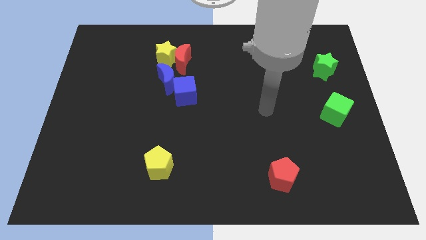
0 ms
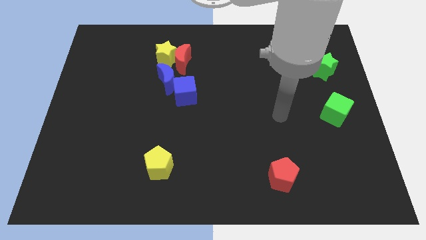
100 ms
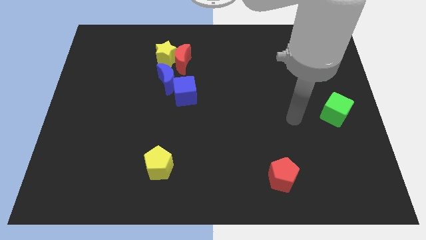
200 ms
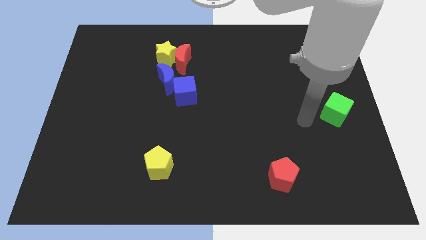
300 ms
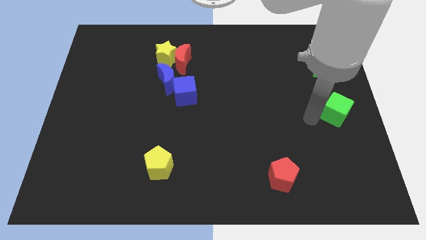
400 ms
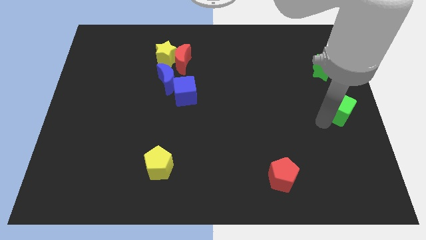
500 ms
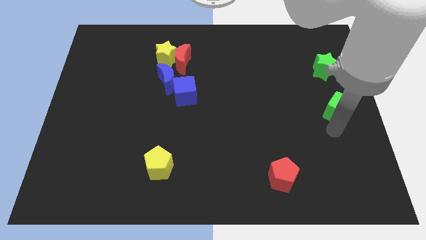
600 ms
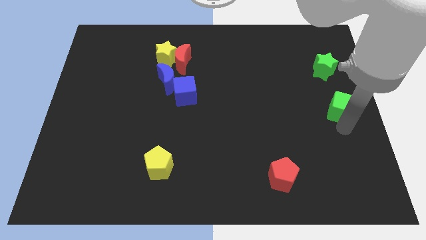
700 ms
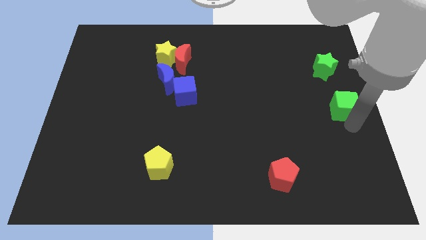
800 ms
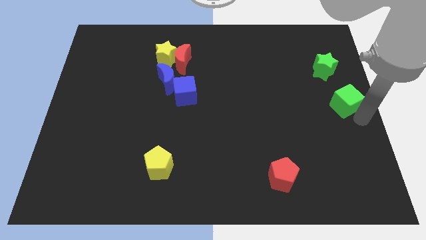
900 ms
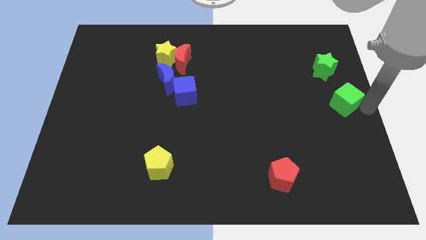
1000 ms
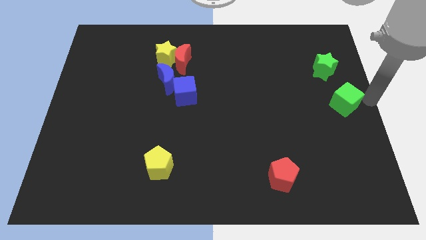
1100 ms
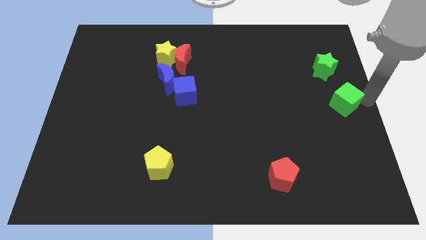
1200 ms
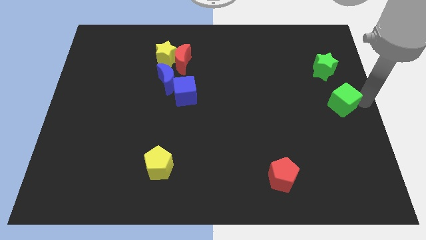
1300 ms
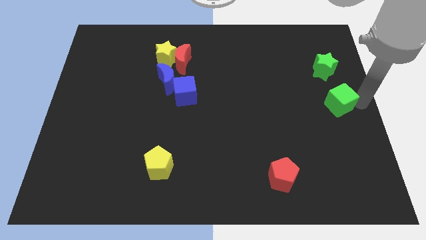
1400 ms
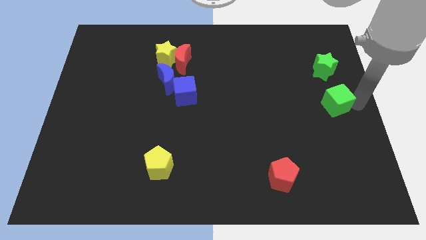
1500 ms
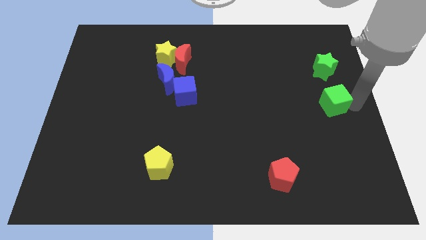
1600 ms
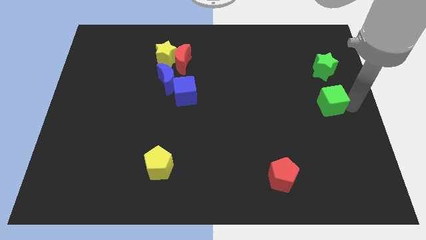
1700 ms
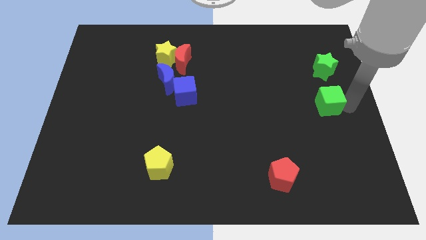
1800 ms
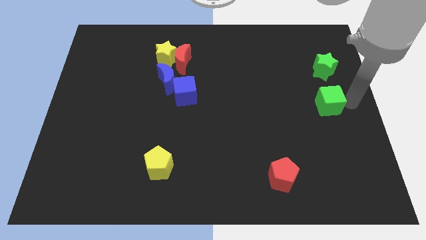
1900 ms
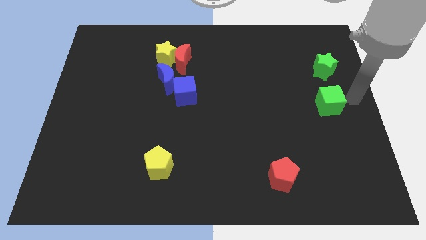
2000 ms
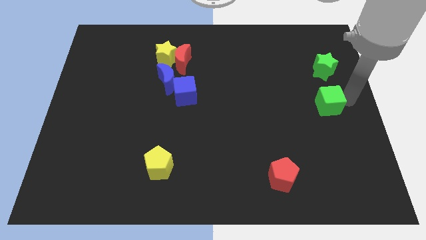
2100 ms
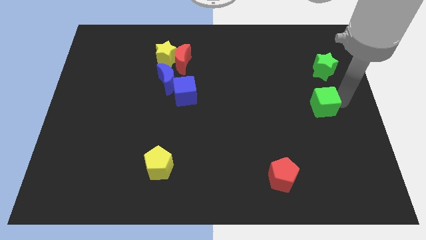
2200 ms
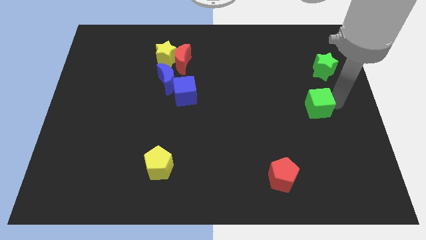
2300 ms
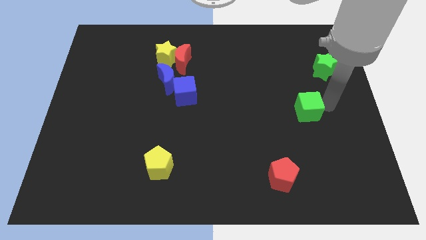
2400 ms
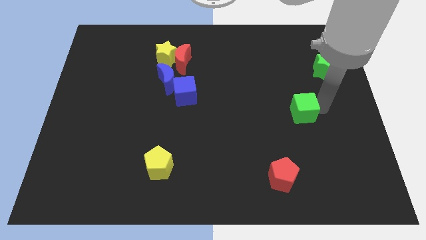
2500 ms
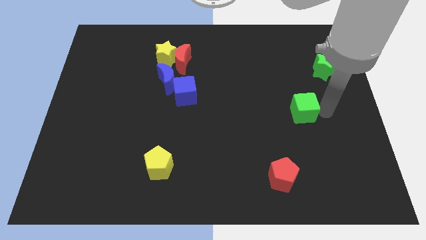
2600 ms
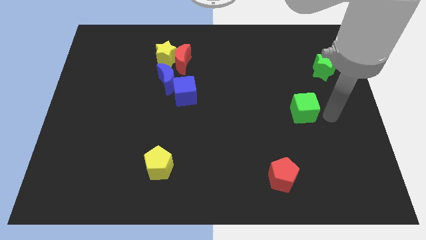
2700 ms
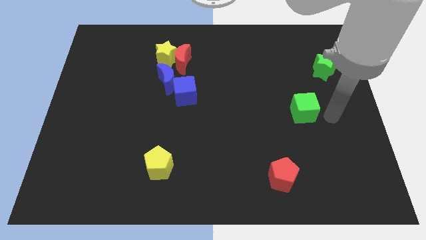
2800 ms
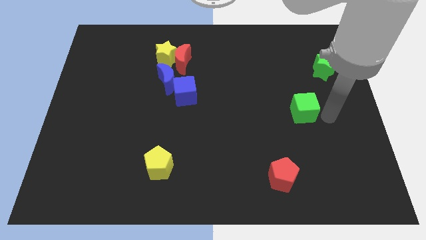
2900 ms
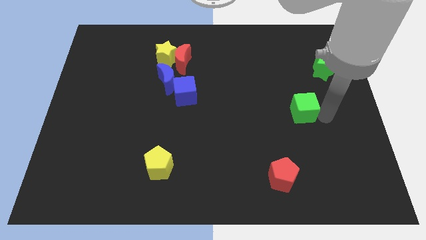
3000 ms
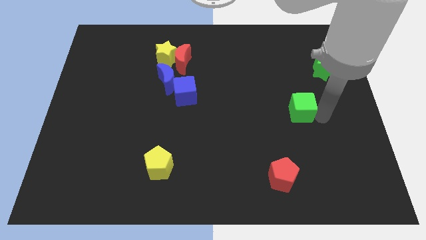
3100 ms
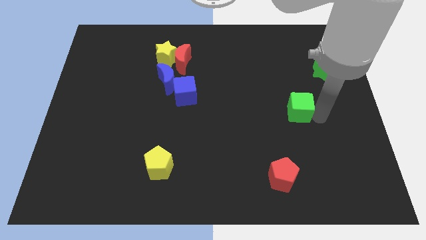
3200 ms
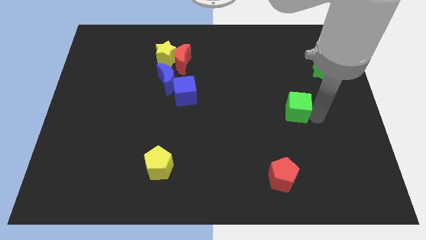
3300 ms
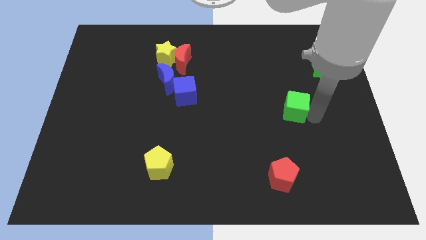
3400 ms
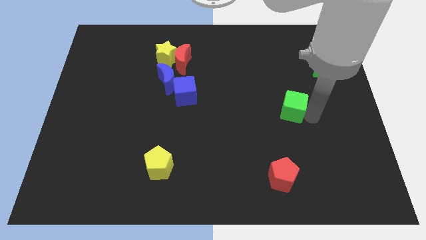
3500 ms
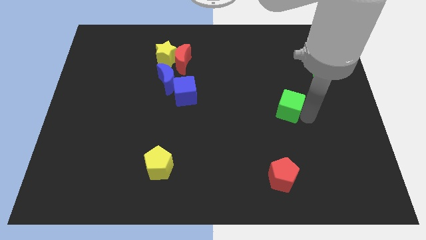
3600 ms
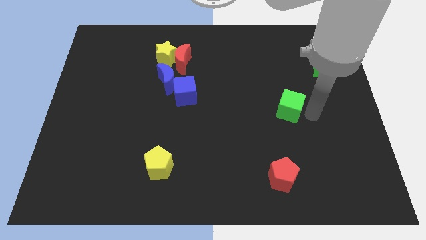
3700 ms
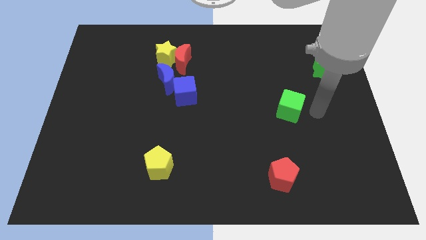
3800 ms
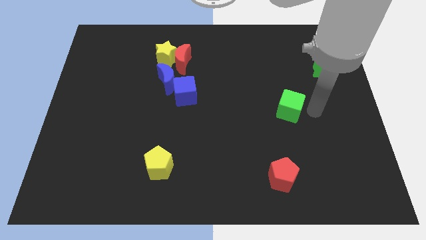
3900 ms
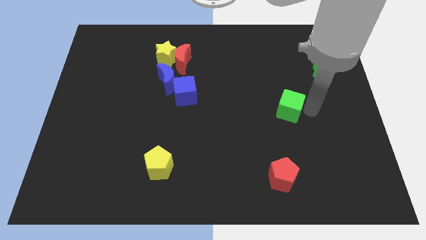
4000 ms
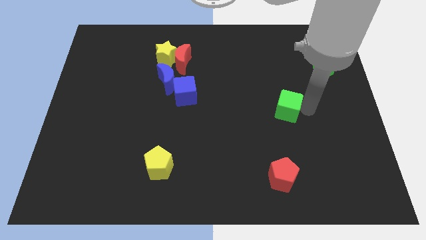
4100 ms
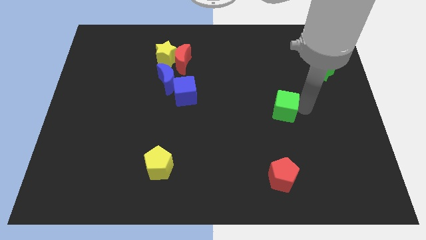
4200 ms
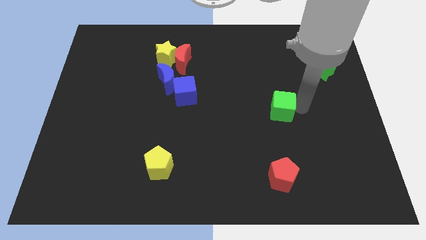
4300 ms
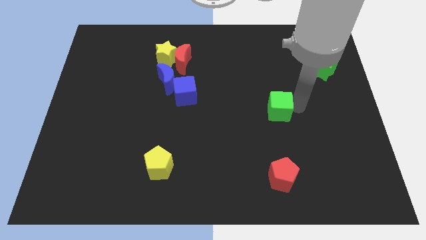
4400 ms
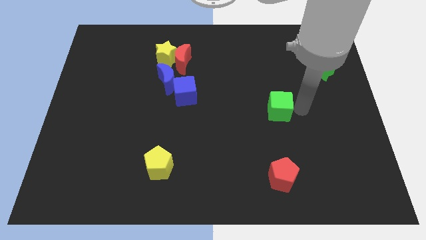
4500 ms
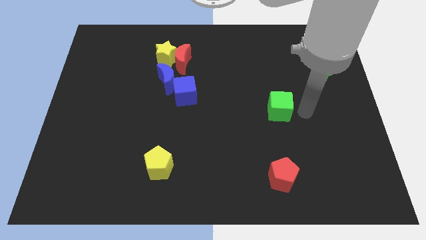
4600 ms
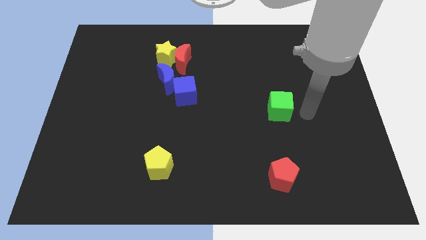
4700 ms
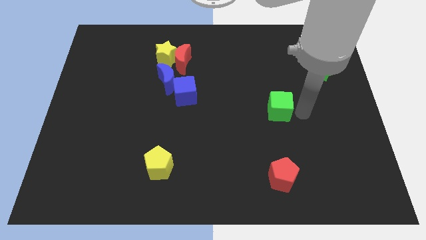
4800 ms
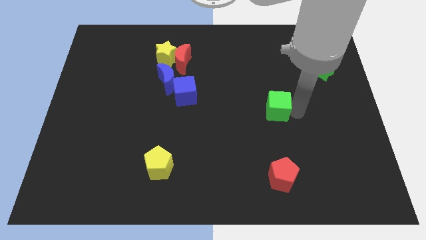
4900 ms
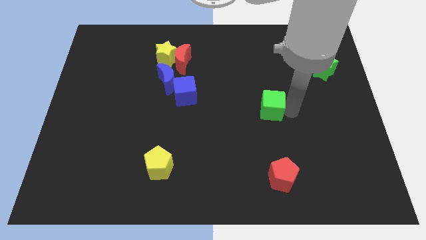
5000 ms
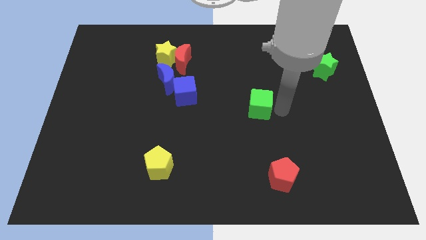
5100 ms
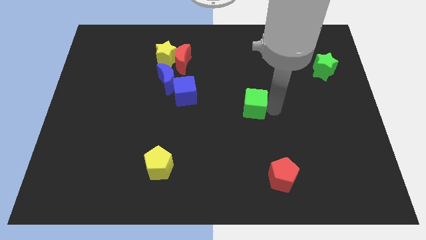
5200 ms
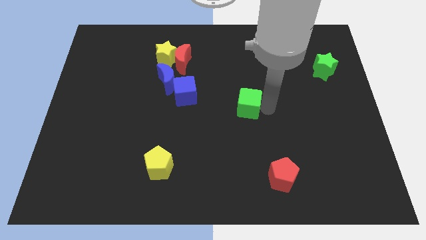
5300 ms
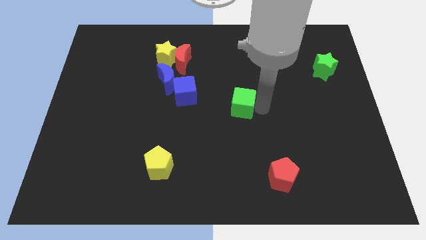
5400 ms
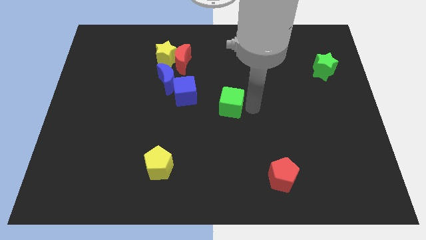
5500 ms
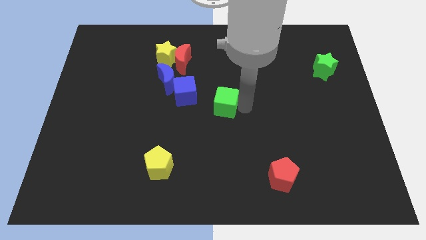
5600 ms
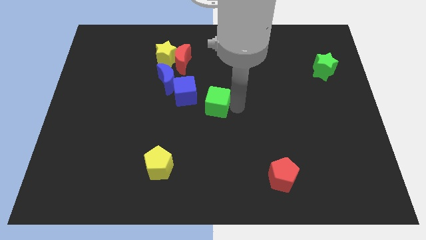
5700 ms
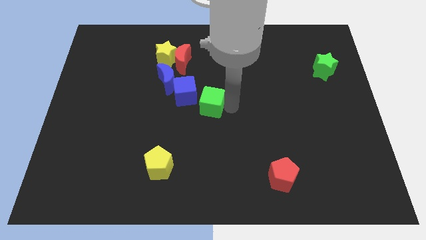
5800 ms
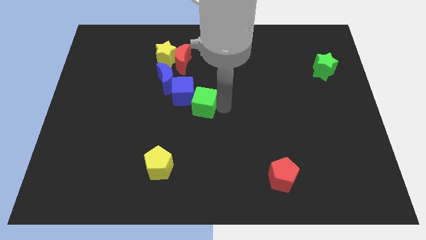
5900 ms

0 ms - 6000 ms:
push the green cube close to the blue cube

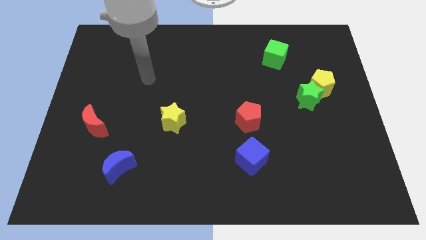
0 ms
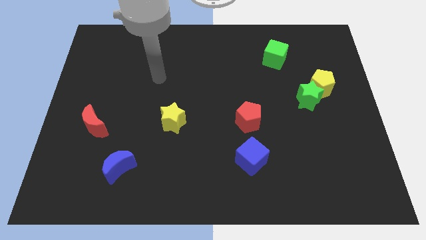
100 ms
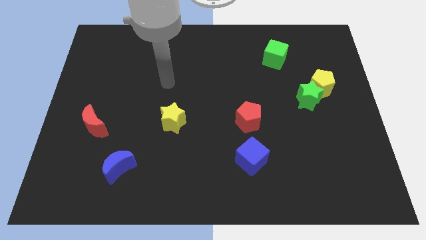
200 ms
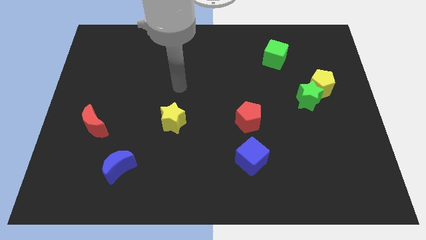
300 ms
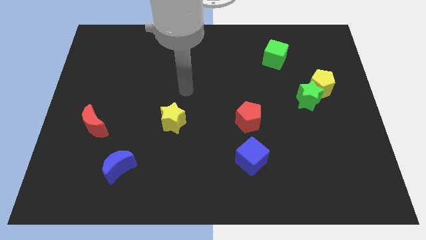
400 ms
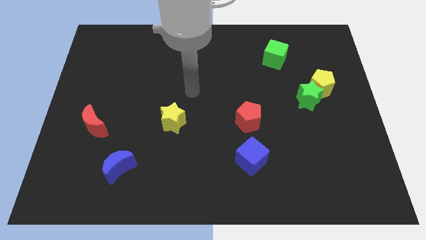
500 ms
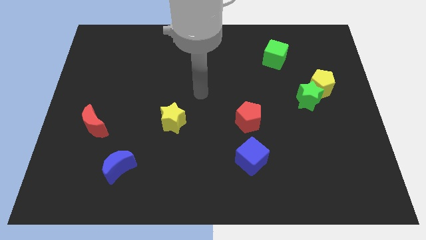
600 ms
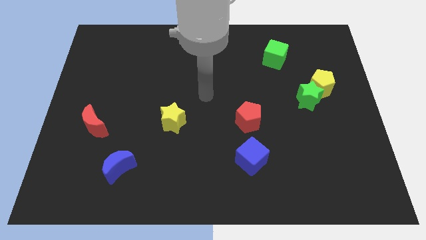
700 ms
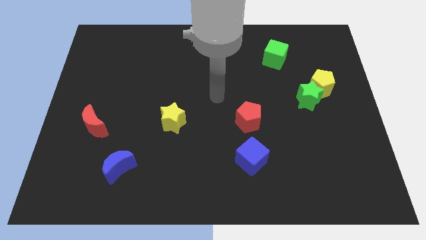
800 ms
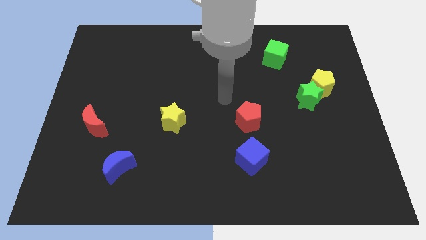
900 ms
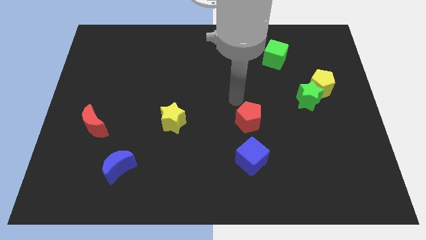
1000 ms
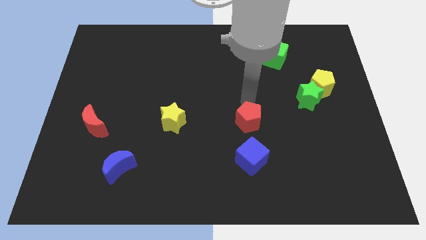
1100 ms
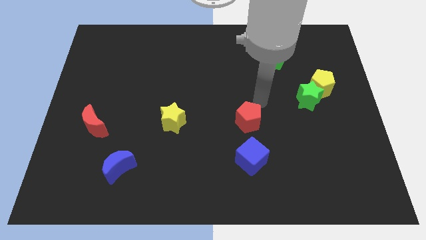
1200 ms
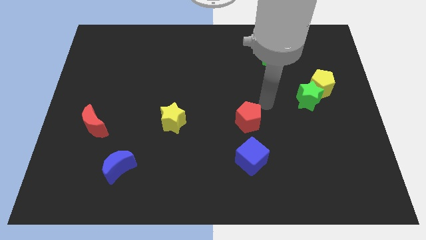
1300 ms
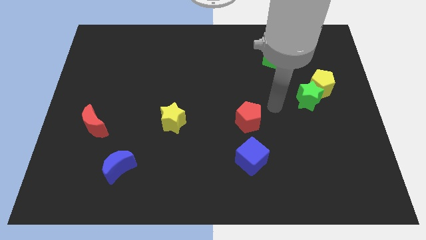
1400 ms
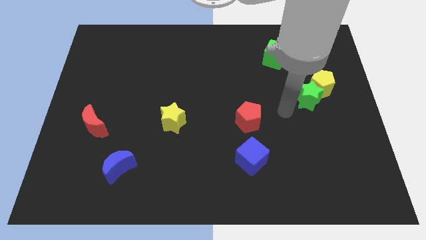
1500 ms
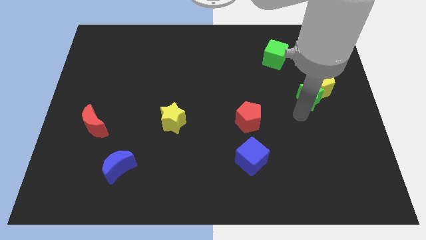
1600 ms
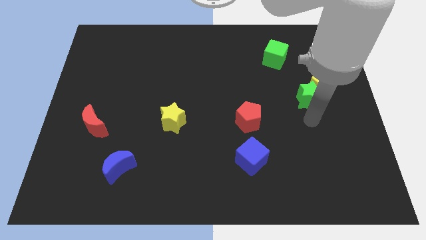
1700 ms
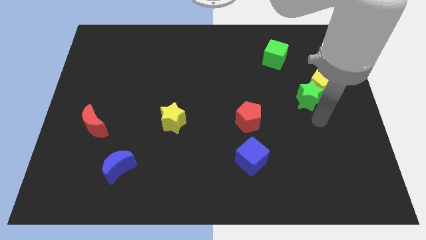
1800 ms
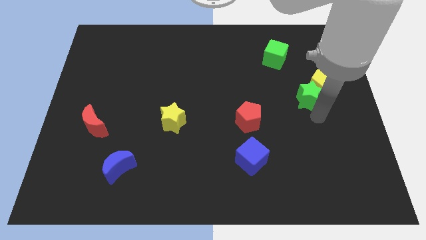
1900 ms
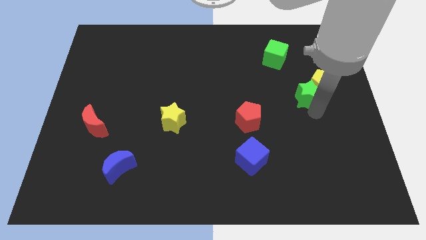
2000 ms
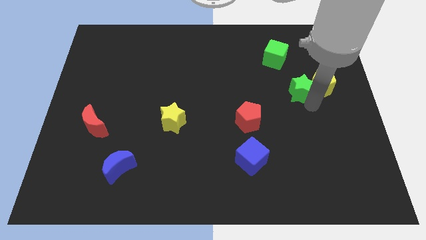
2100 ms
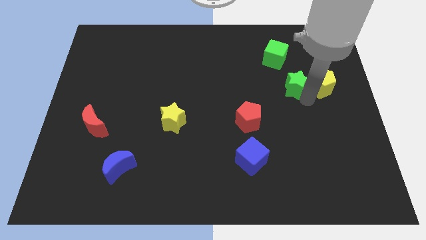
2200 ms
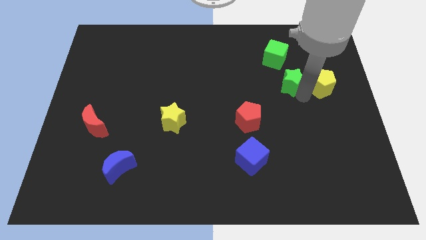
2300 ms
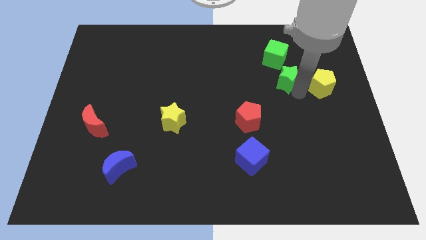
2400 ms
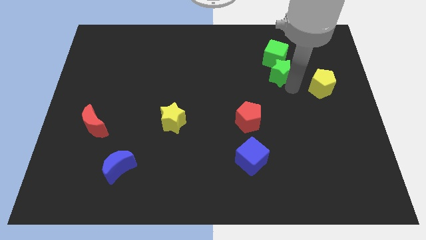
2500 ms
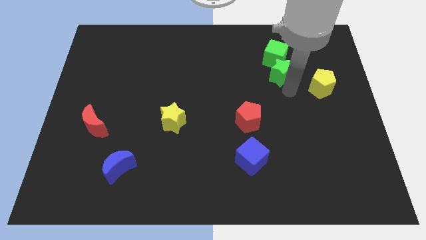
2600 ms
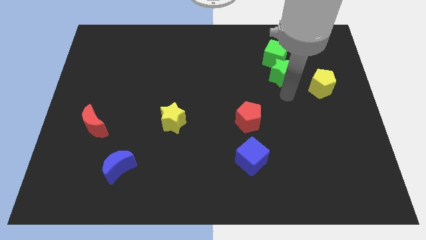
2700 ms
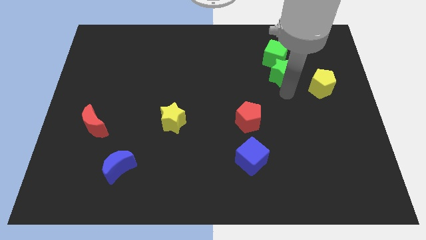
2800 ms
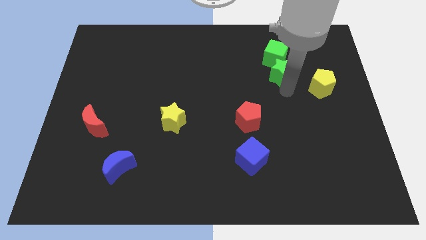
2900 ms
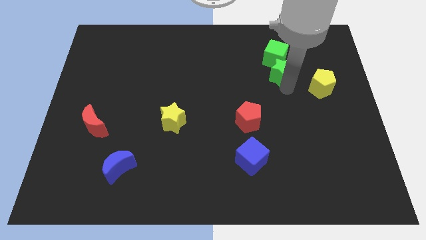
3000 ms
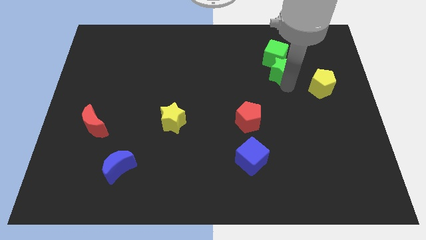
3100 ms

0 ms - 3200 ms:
move the green star next to the green cube
